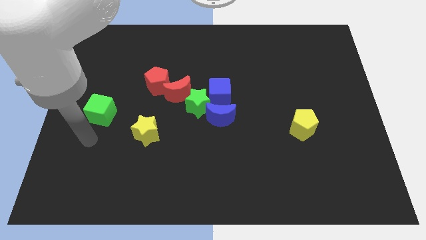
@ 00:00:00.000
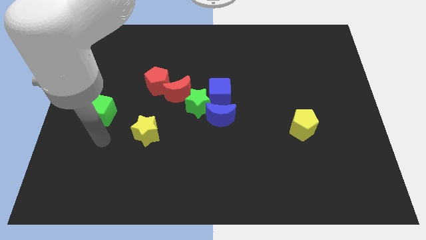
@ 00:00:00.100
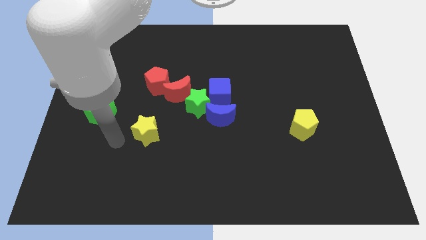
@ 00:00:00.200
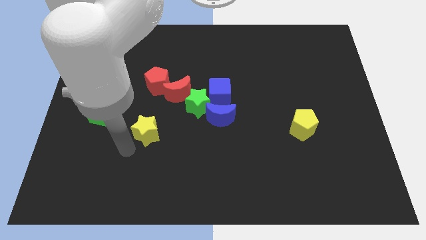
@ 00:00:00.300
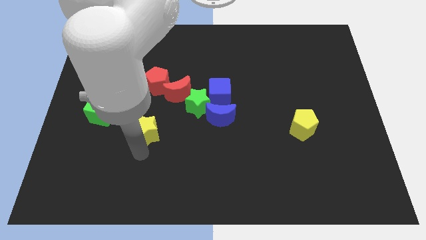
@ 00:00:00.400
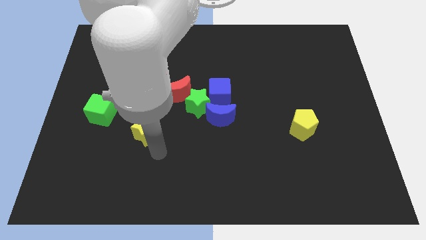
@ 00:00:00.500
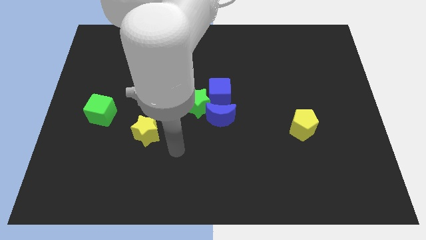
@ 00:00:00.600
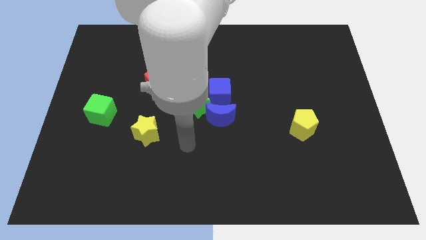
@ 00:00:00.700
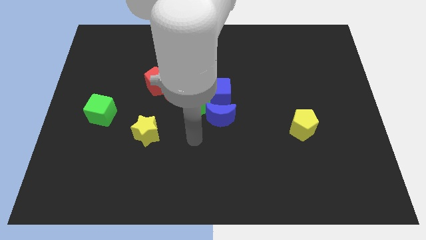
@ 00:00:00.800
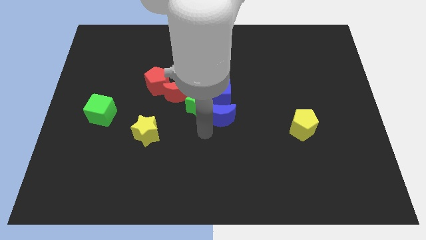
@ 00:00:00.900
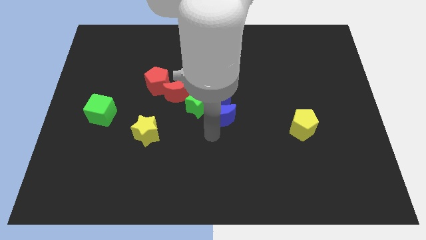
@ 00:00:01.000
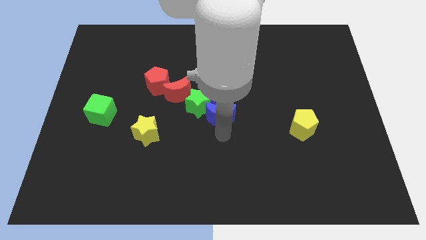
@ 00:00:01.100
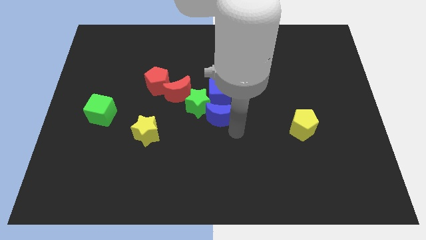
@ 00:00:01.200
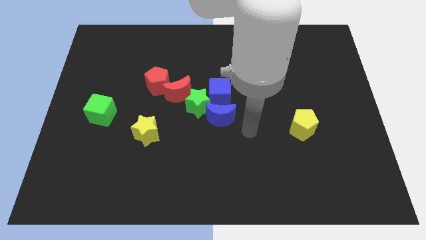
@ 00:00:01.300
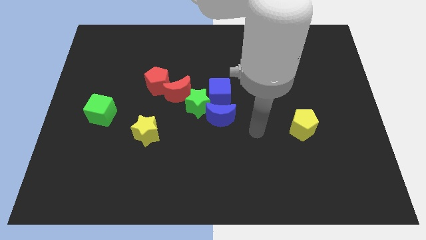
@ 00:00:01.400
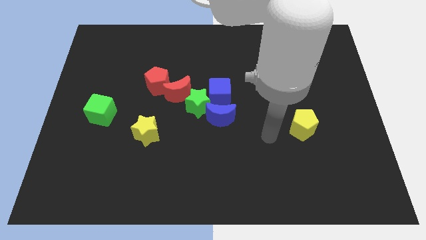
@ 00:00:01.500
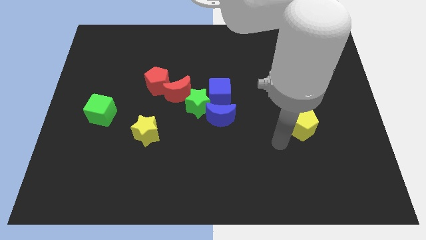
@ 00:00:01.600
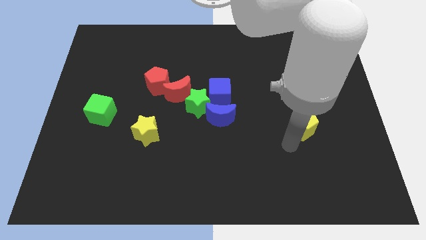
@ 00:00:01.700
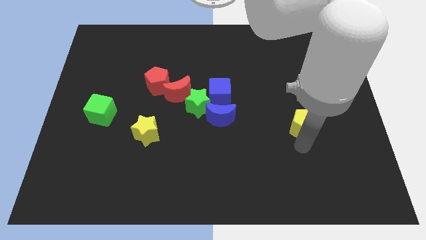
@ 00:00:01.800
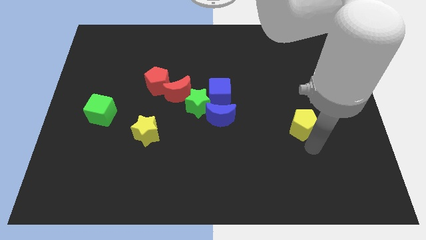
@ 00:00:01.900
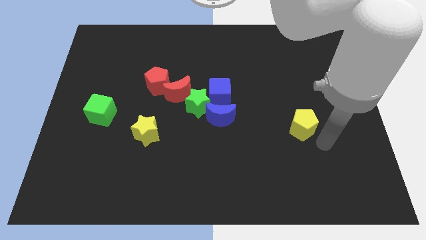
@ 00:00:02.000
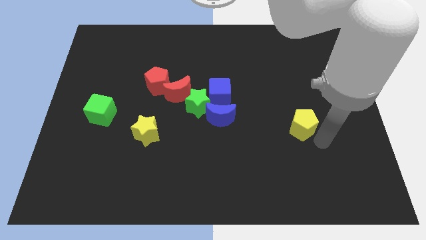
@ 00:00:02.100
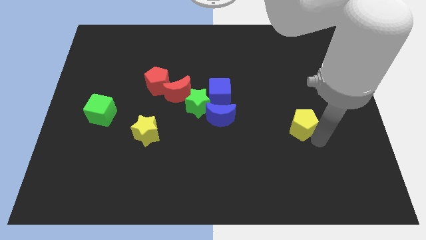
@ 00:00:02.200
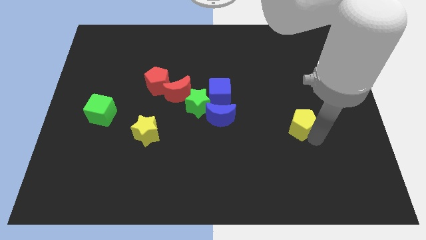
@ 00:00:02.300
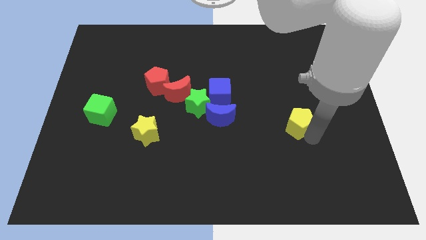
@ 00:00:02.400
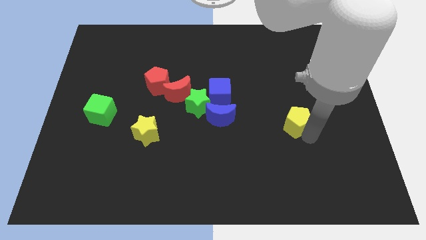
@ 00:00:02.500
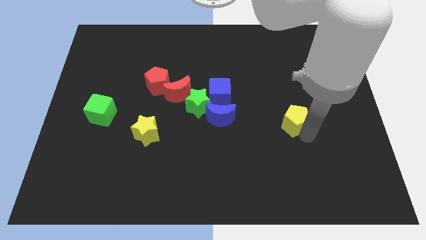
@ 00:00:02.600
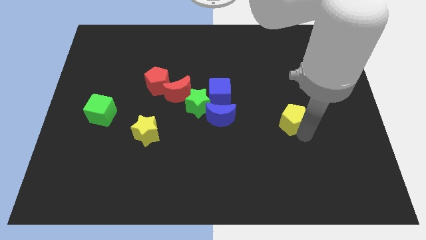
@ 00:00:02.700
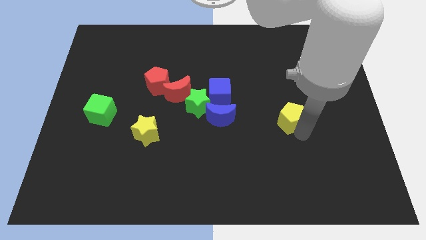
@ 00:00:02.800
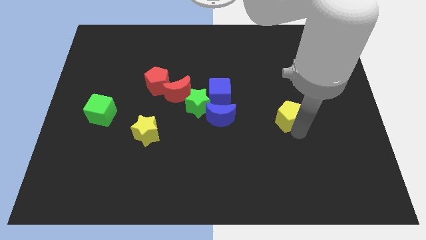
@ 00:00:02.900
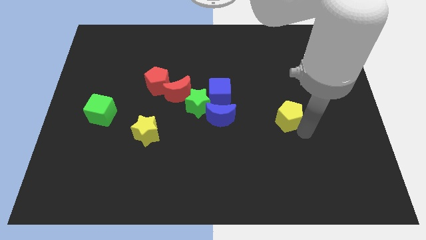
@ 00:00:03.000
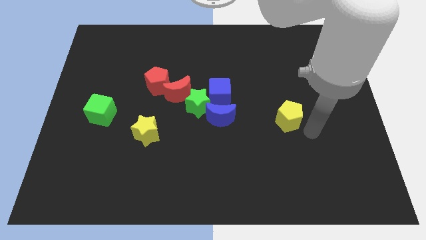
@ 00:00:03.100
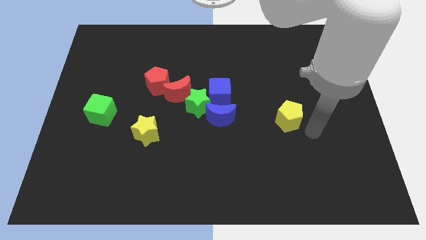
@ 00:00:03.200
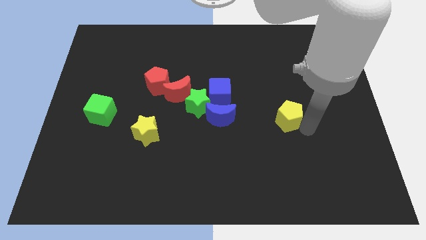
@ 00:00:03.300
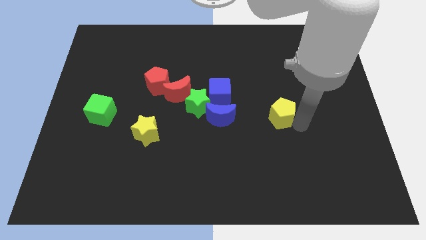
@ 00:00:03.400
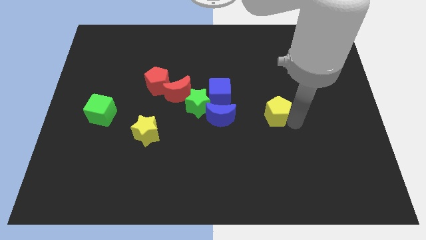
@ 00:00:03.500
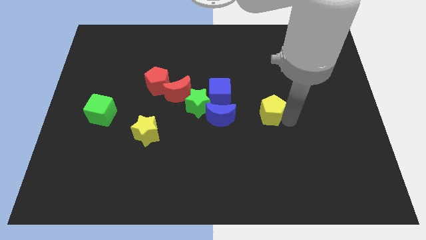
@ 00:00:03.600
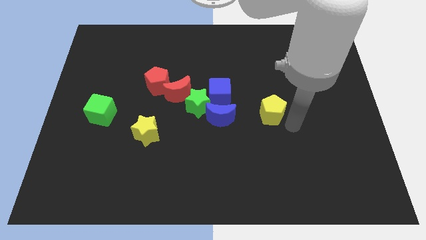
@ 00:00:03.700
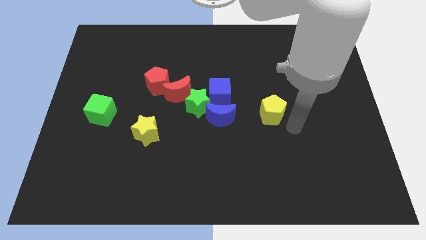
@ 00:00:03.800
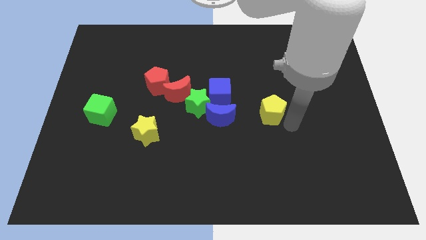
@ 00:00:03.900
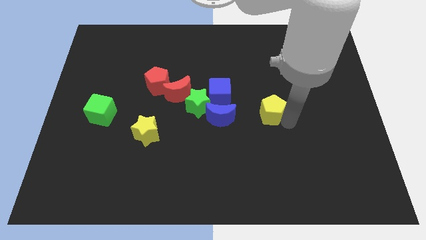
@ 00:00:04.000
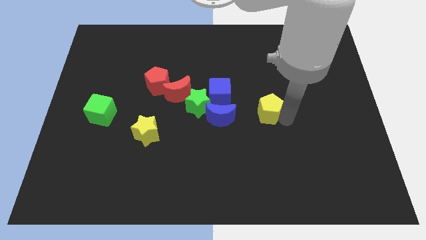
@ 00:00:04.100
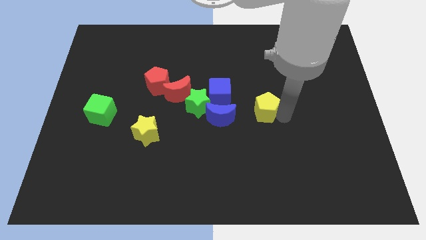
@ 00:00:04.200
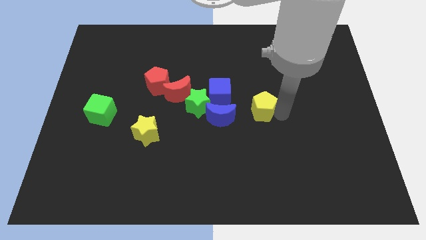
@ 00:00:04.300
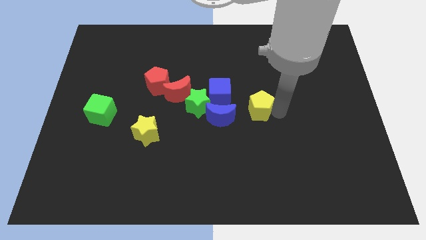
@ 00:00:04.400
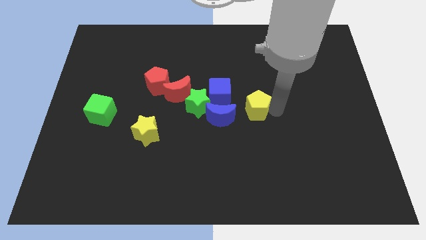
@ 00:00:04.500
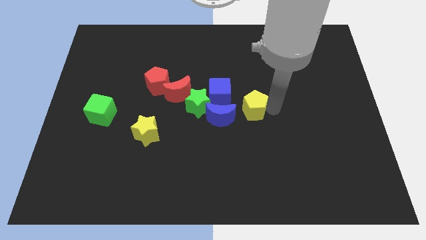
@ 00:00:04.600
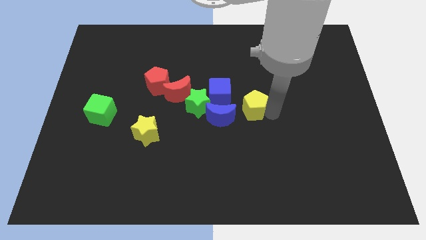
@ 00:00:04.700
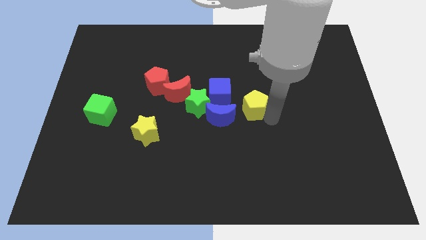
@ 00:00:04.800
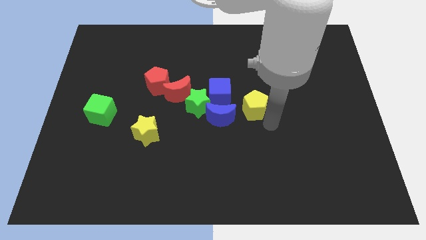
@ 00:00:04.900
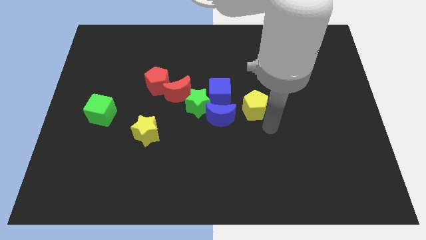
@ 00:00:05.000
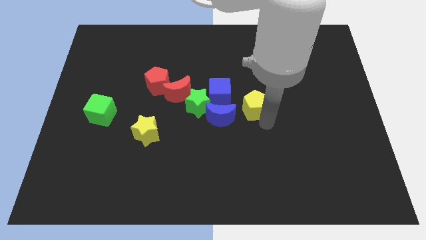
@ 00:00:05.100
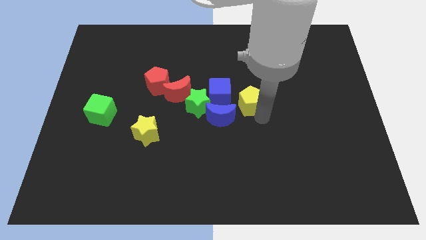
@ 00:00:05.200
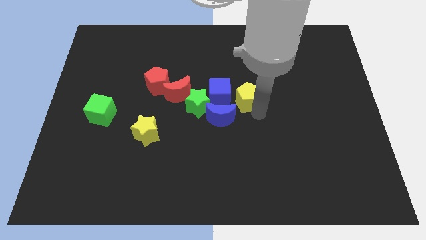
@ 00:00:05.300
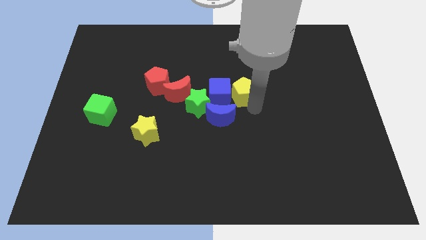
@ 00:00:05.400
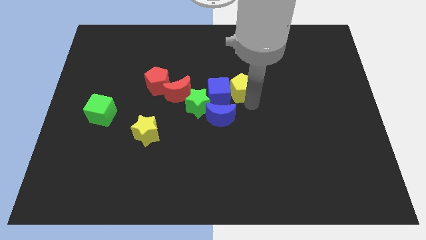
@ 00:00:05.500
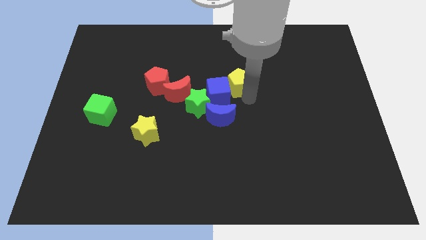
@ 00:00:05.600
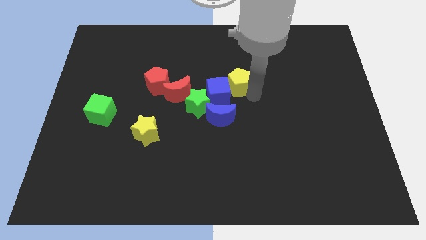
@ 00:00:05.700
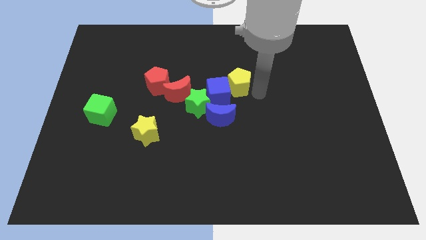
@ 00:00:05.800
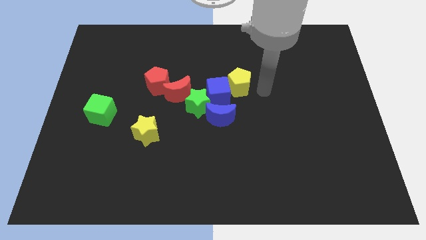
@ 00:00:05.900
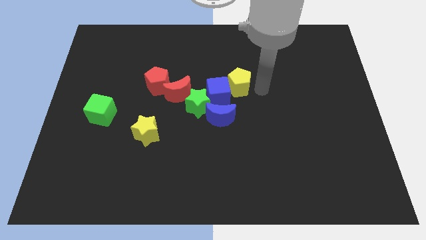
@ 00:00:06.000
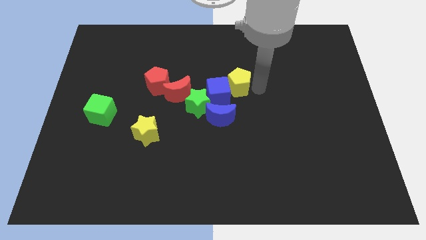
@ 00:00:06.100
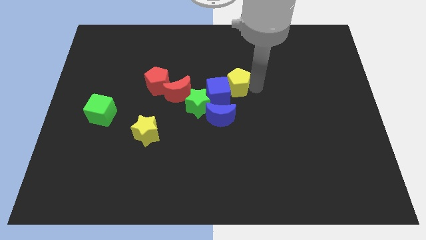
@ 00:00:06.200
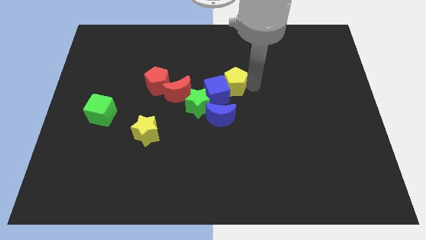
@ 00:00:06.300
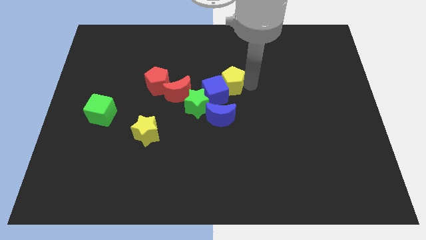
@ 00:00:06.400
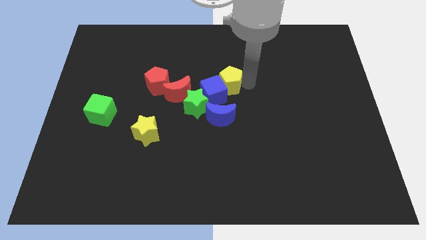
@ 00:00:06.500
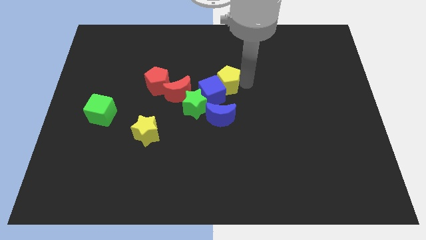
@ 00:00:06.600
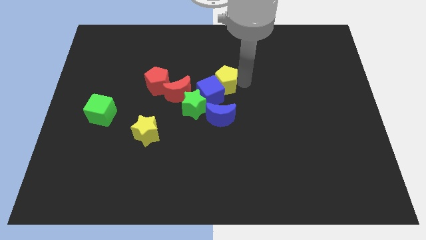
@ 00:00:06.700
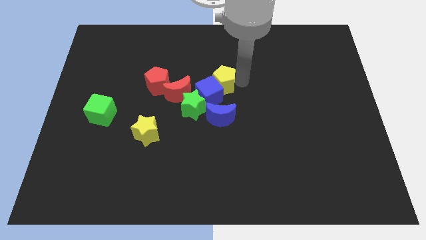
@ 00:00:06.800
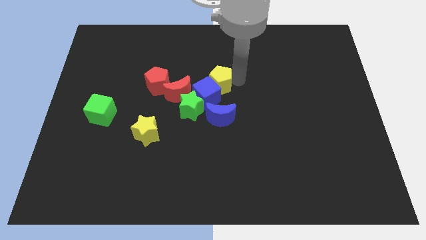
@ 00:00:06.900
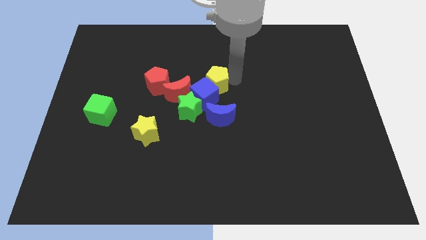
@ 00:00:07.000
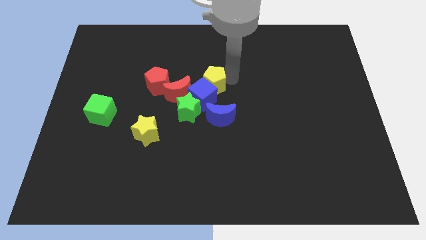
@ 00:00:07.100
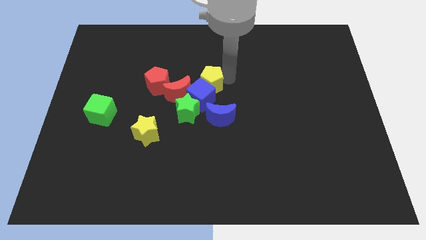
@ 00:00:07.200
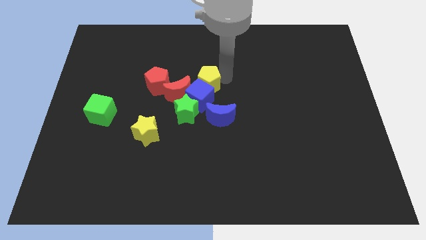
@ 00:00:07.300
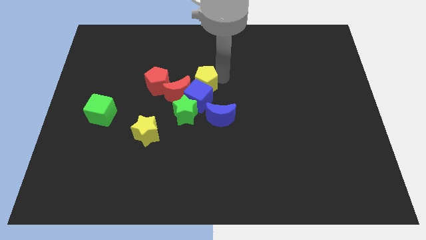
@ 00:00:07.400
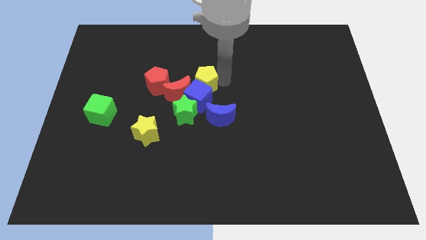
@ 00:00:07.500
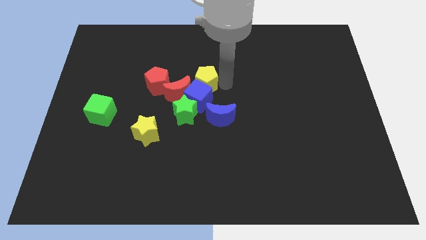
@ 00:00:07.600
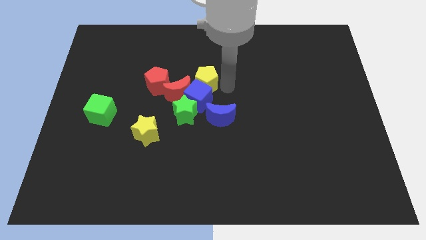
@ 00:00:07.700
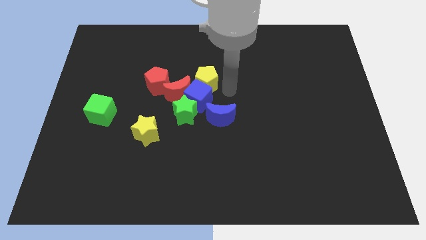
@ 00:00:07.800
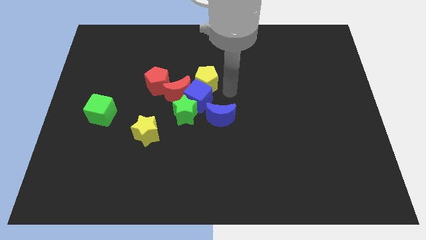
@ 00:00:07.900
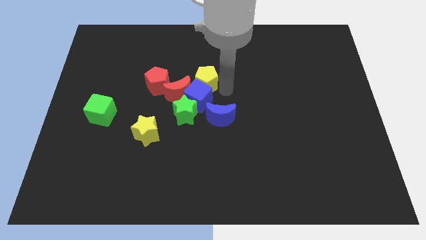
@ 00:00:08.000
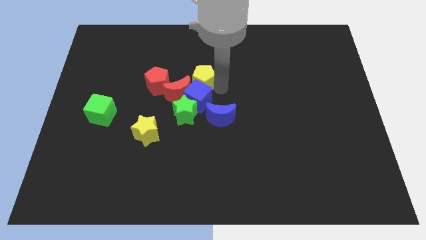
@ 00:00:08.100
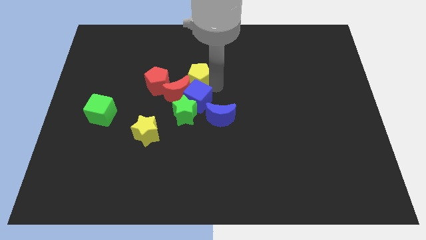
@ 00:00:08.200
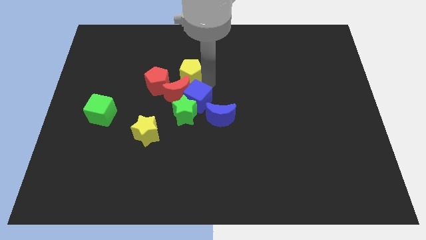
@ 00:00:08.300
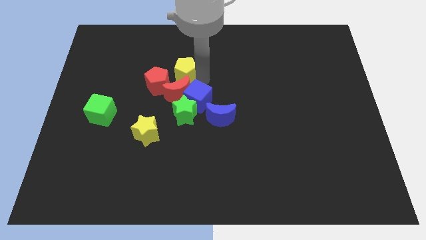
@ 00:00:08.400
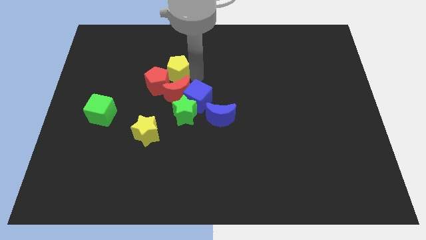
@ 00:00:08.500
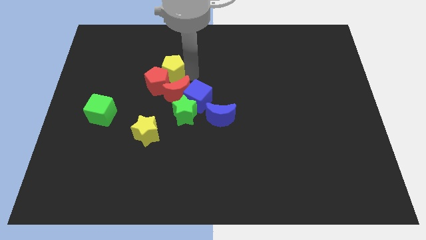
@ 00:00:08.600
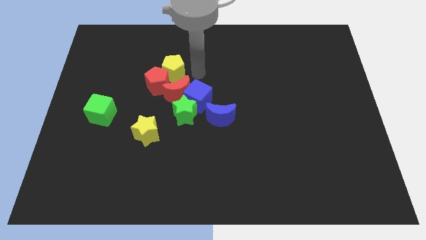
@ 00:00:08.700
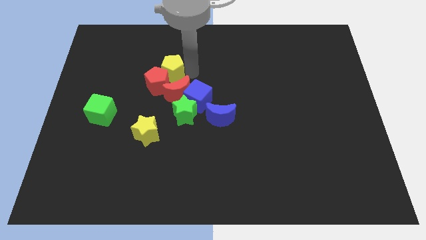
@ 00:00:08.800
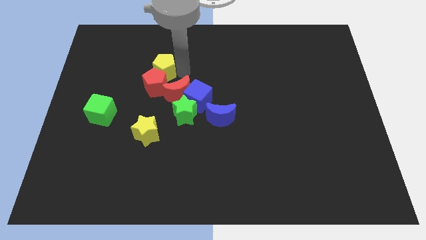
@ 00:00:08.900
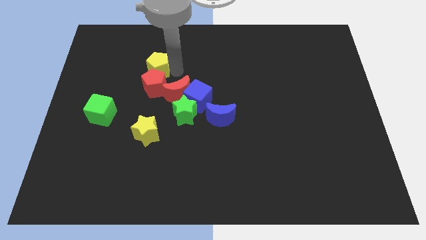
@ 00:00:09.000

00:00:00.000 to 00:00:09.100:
slide the yellow pentagon diagonally up and to the left of the red pentagon
